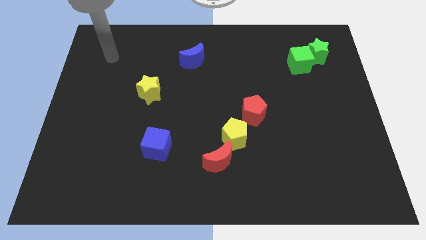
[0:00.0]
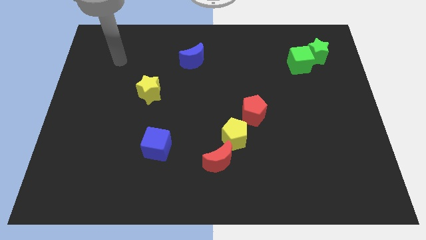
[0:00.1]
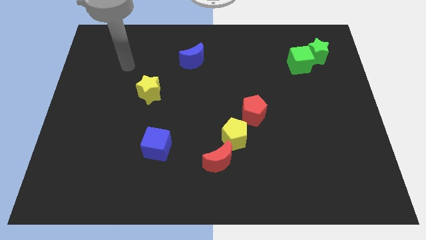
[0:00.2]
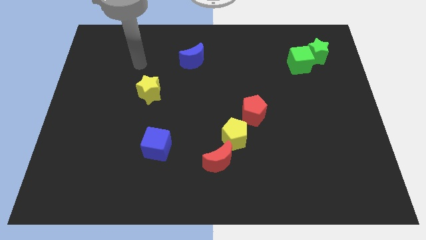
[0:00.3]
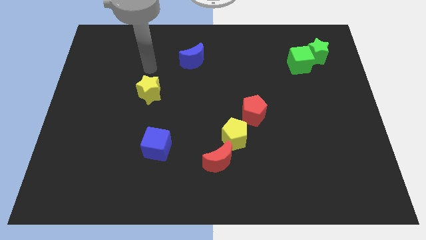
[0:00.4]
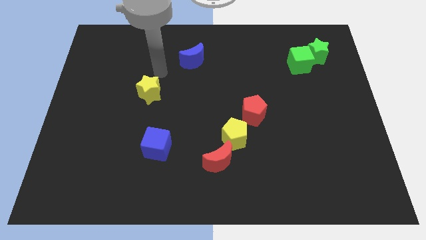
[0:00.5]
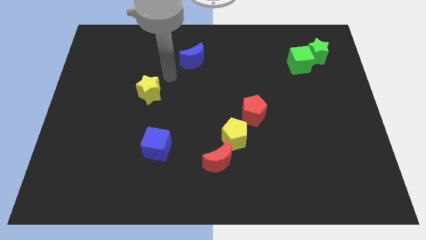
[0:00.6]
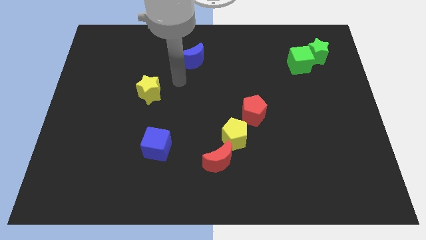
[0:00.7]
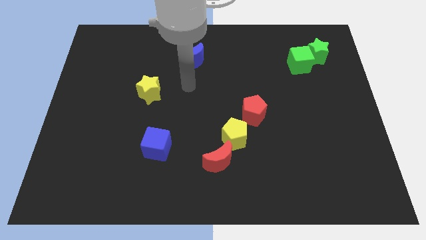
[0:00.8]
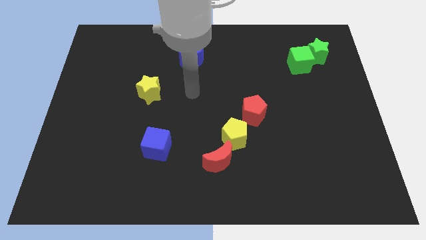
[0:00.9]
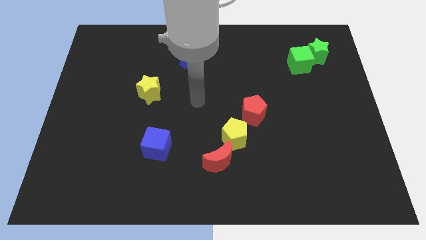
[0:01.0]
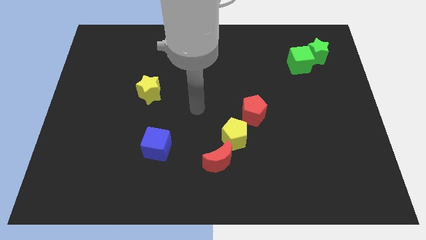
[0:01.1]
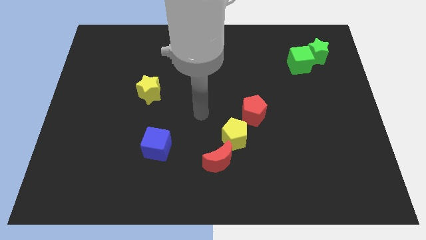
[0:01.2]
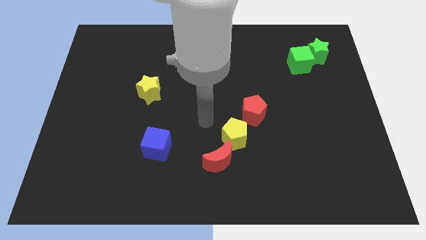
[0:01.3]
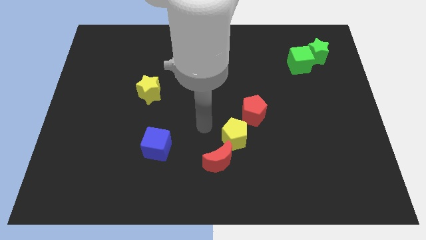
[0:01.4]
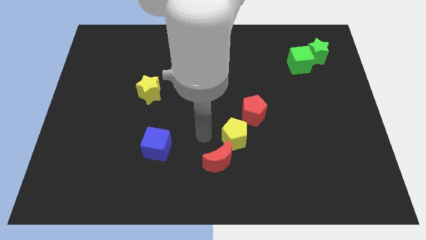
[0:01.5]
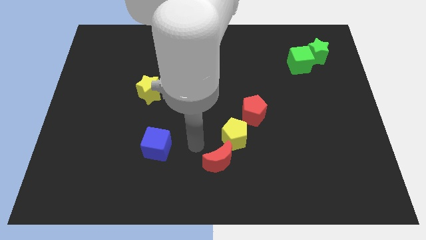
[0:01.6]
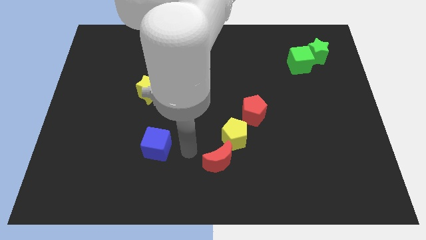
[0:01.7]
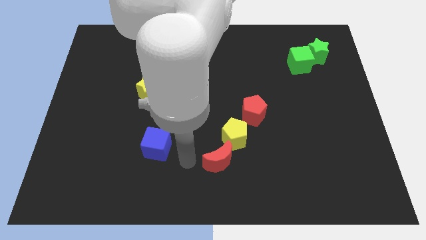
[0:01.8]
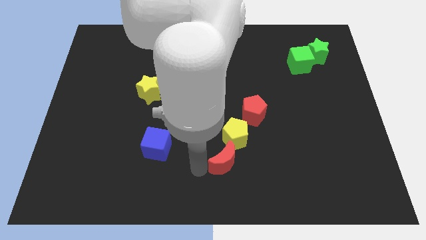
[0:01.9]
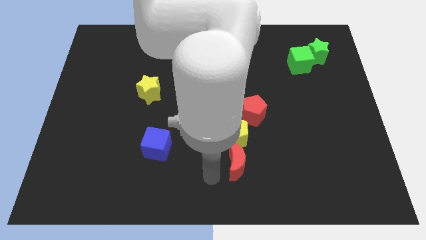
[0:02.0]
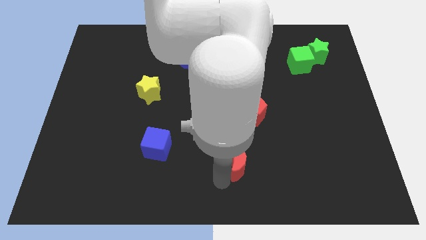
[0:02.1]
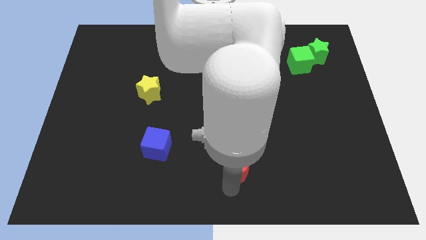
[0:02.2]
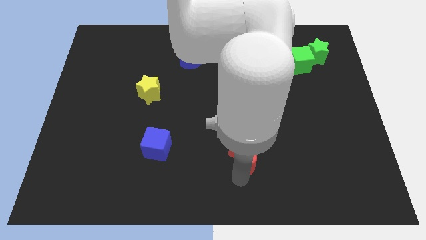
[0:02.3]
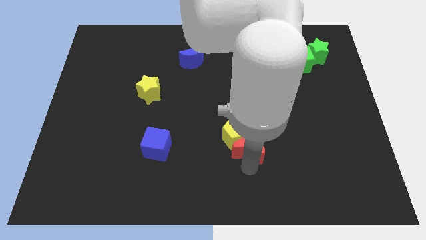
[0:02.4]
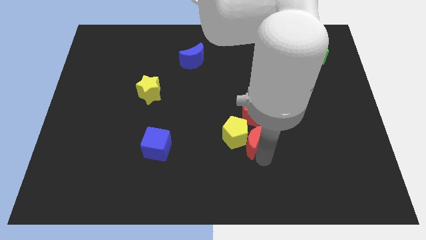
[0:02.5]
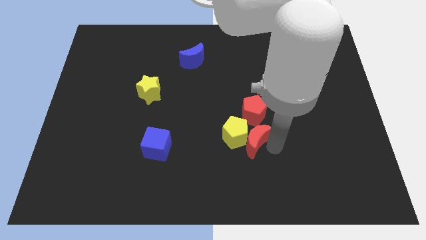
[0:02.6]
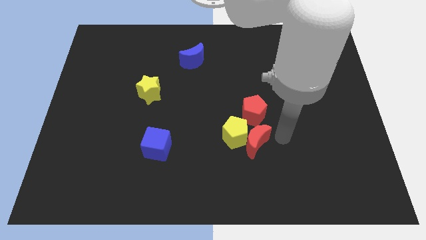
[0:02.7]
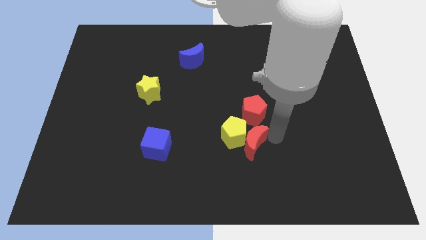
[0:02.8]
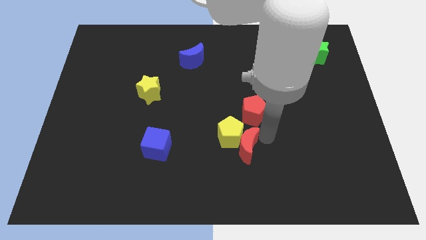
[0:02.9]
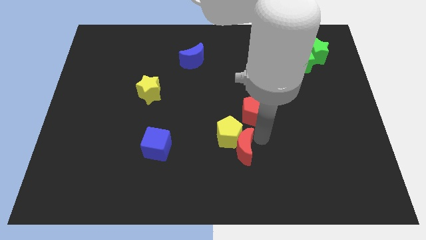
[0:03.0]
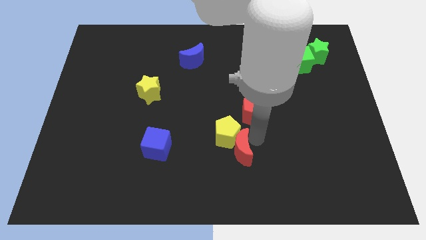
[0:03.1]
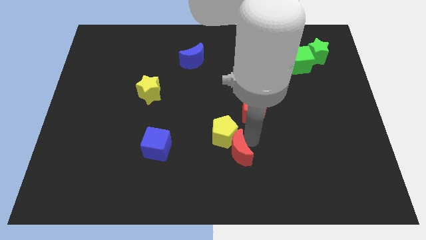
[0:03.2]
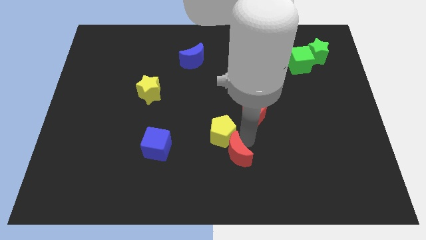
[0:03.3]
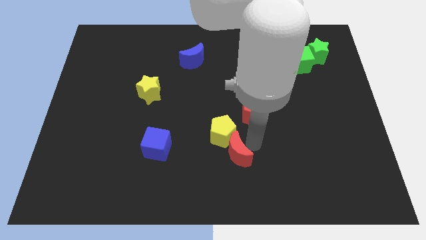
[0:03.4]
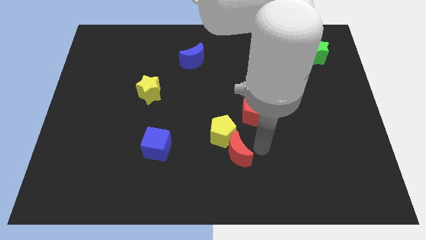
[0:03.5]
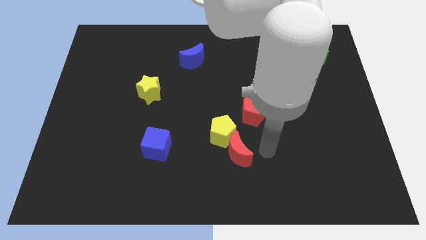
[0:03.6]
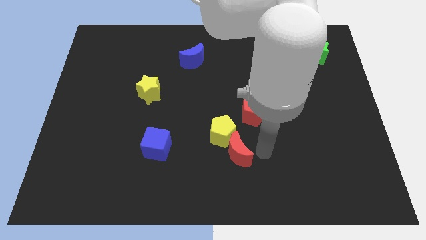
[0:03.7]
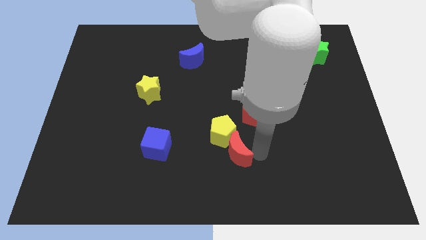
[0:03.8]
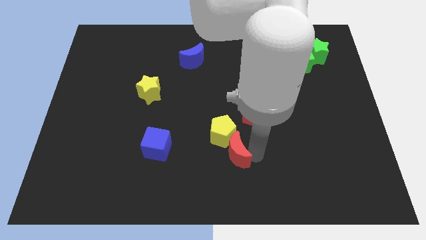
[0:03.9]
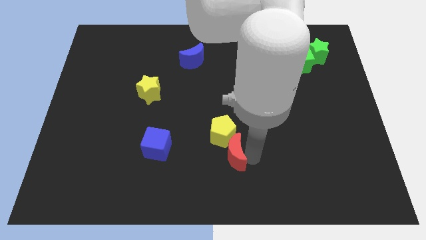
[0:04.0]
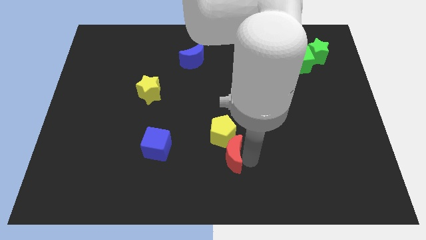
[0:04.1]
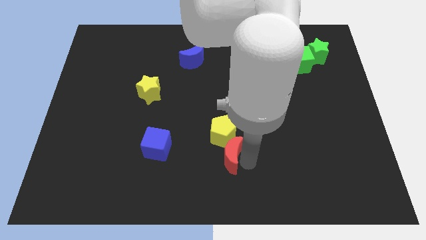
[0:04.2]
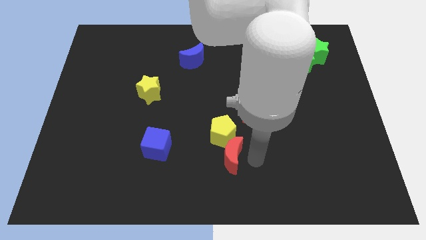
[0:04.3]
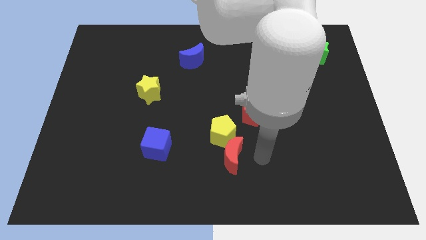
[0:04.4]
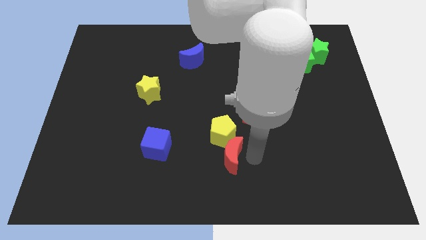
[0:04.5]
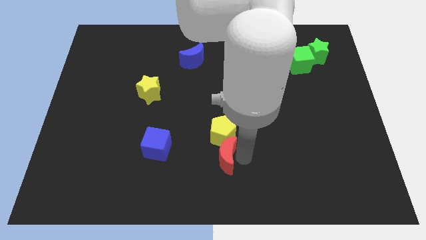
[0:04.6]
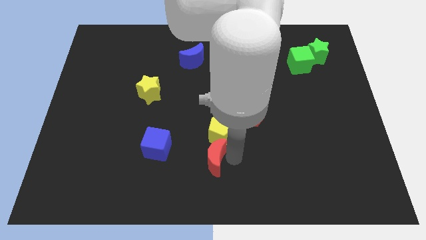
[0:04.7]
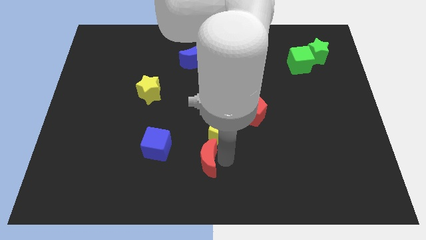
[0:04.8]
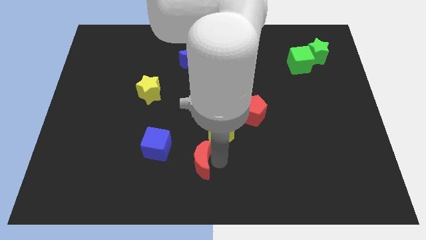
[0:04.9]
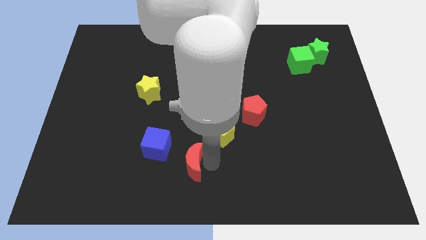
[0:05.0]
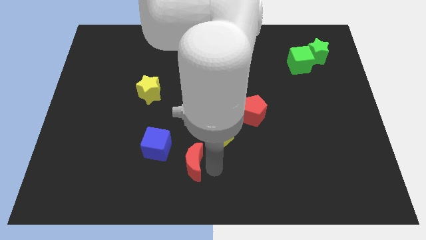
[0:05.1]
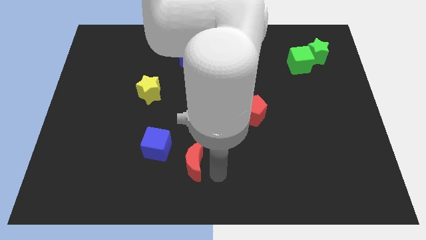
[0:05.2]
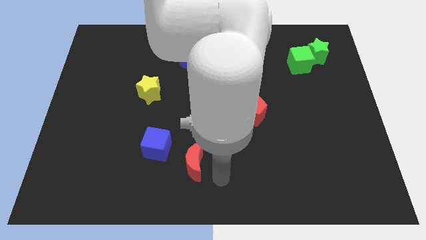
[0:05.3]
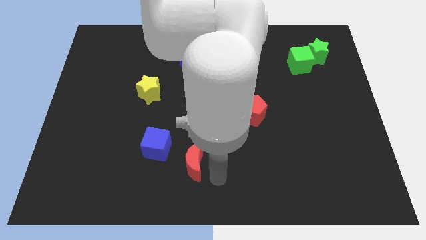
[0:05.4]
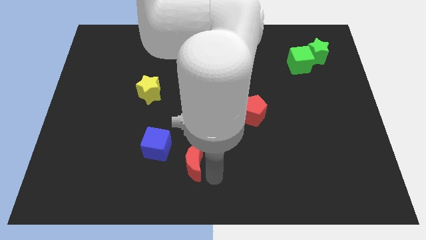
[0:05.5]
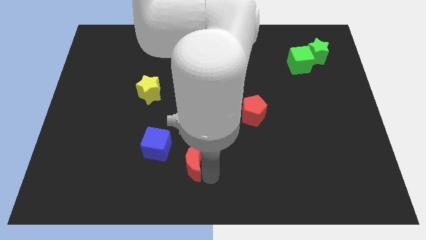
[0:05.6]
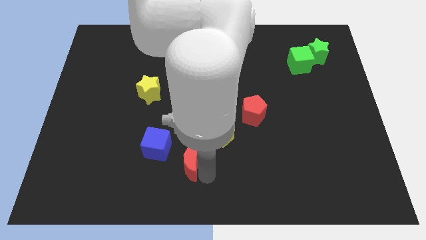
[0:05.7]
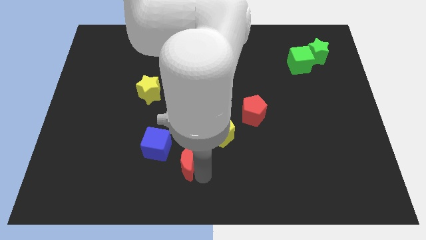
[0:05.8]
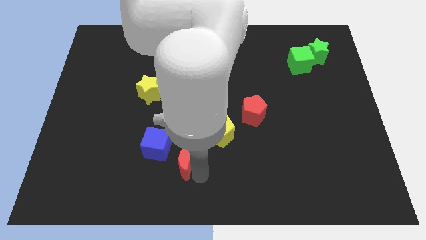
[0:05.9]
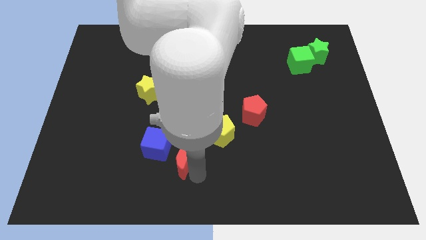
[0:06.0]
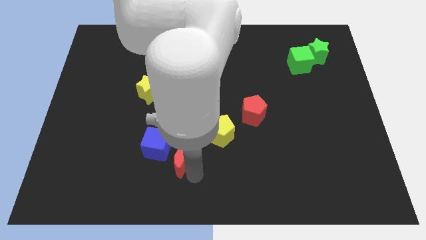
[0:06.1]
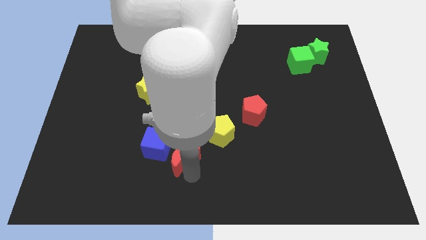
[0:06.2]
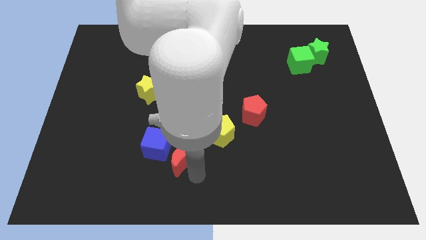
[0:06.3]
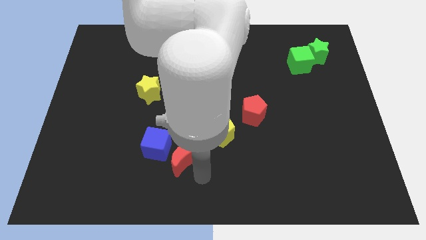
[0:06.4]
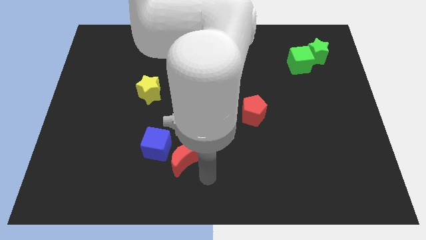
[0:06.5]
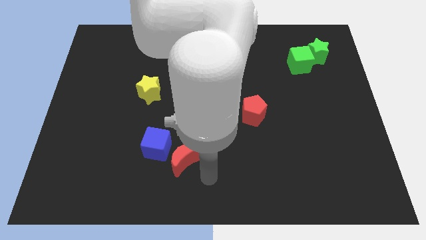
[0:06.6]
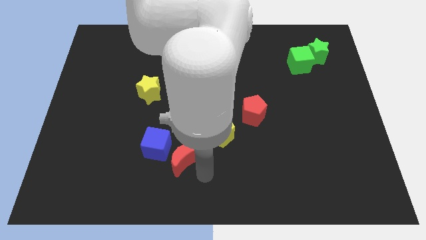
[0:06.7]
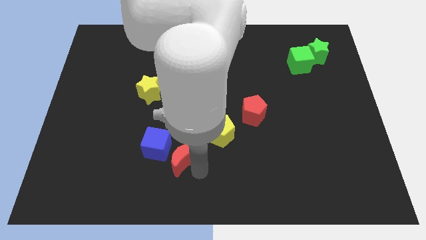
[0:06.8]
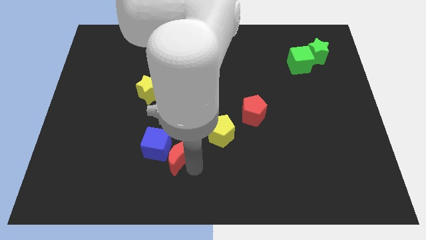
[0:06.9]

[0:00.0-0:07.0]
slide the red moon towards the blue cube
